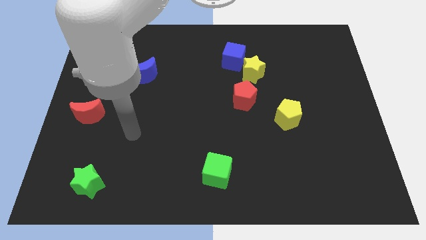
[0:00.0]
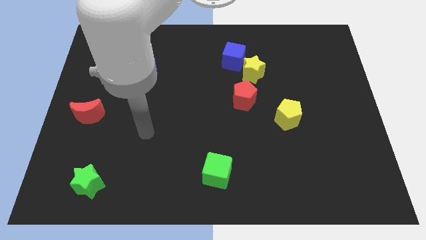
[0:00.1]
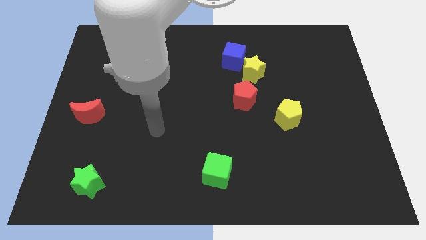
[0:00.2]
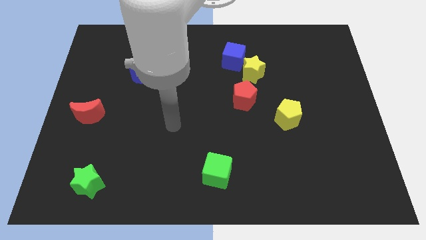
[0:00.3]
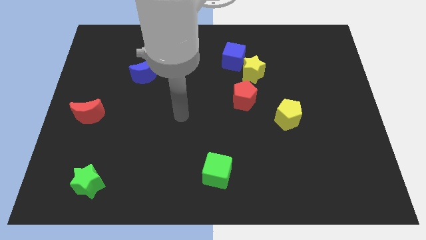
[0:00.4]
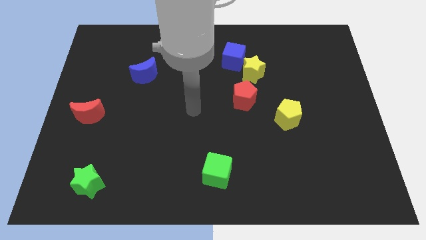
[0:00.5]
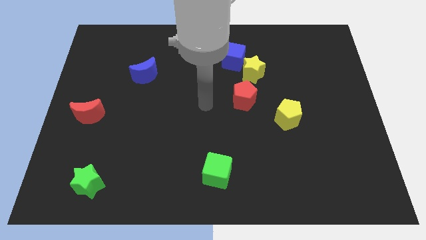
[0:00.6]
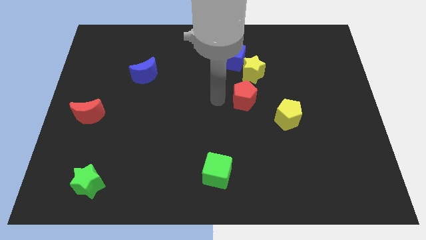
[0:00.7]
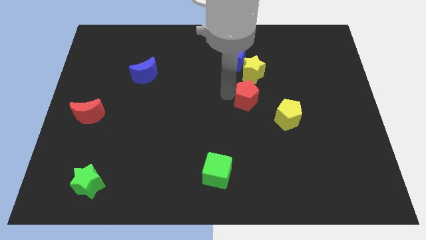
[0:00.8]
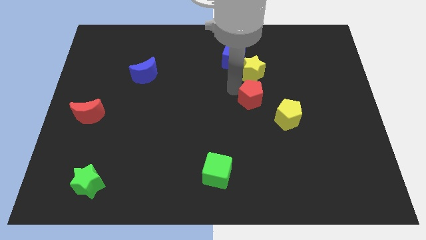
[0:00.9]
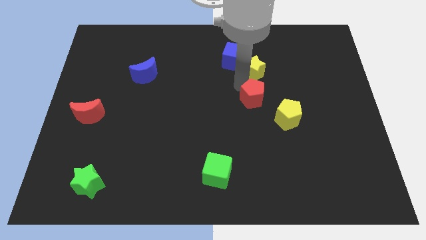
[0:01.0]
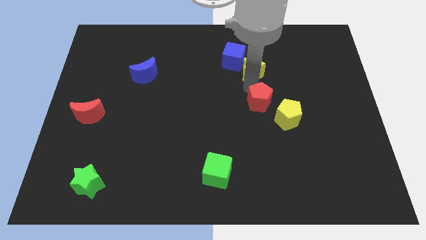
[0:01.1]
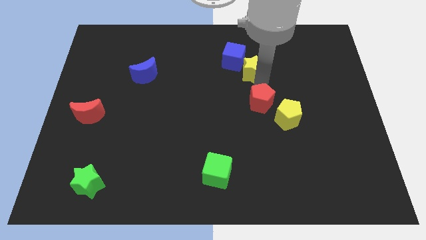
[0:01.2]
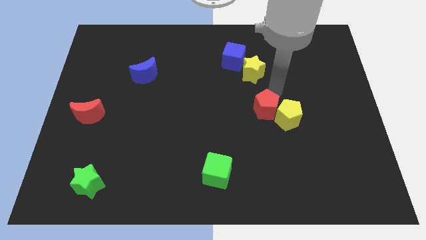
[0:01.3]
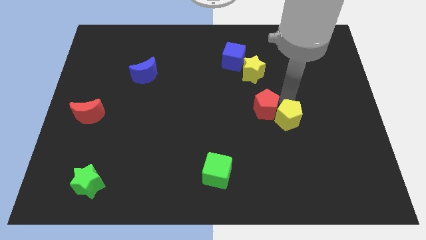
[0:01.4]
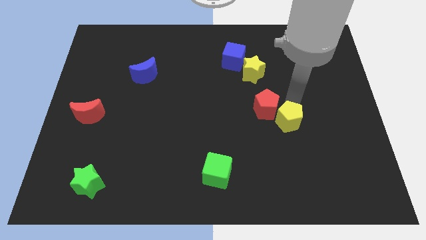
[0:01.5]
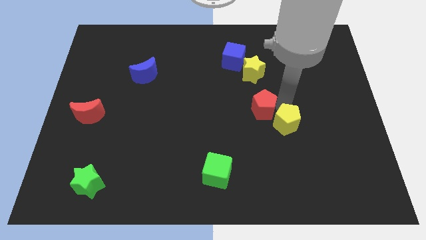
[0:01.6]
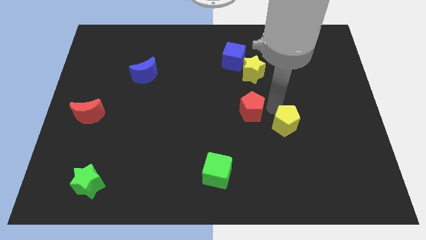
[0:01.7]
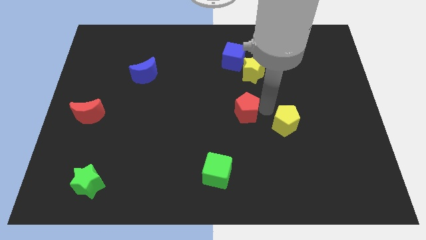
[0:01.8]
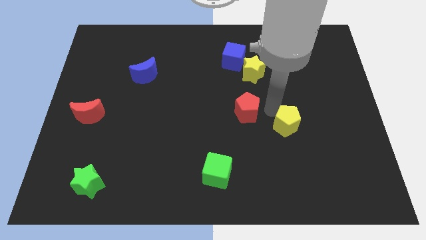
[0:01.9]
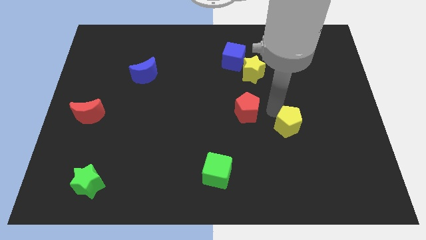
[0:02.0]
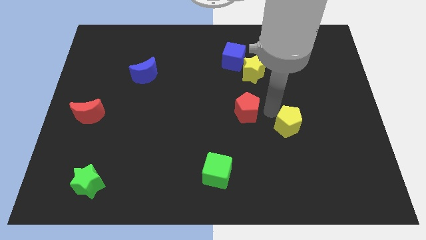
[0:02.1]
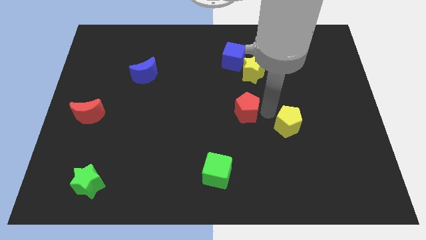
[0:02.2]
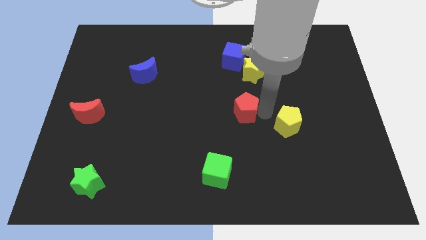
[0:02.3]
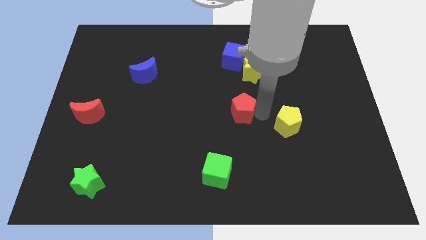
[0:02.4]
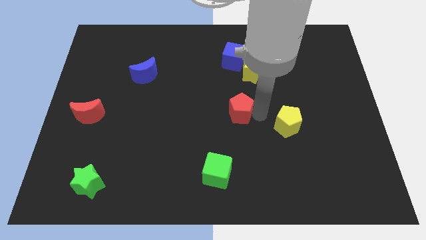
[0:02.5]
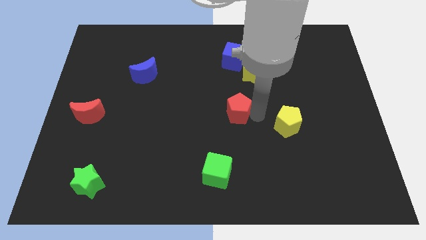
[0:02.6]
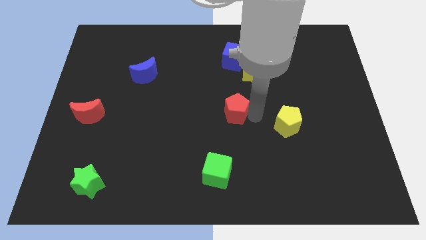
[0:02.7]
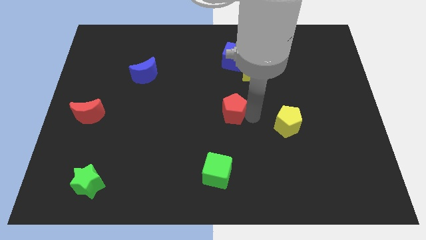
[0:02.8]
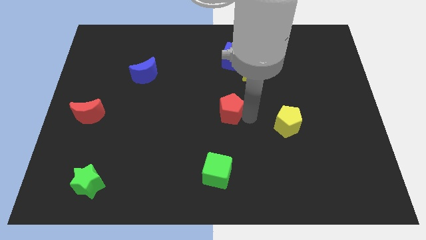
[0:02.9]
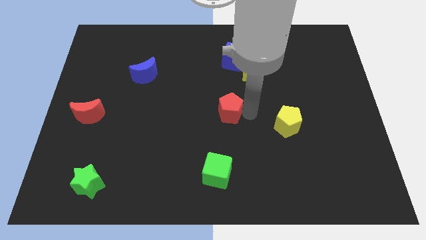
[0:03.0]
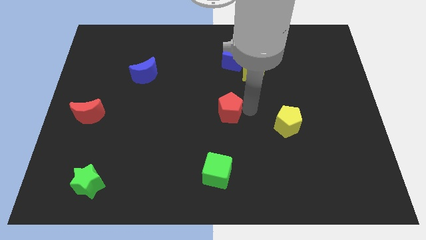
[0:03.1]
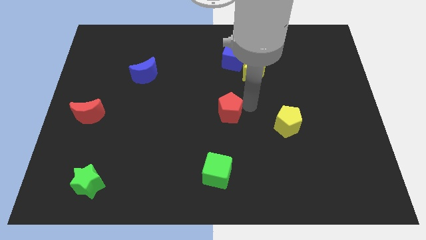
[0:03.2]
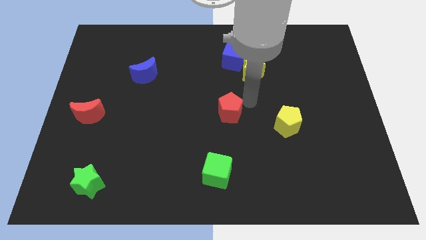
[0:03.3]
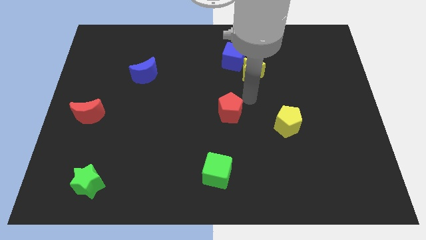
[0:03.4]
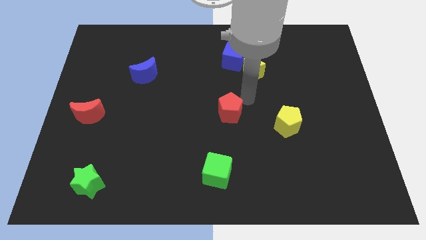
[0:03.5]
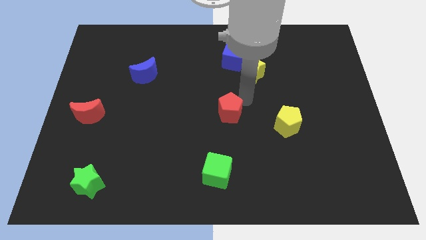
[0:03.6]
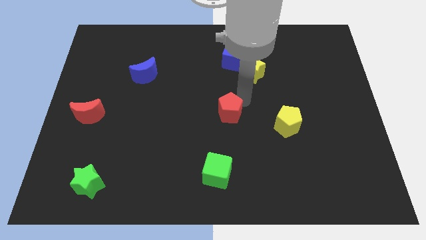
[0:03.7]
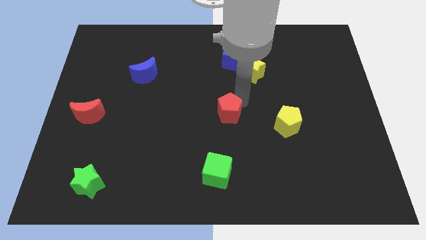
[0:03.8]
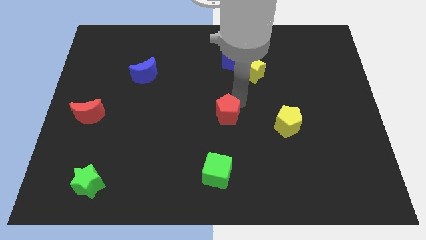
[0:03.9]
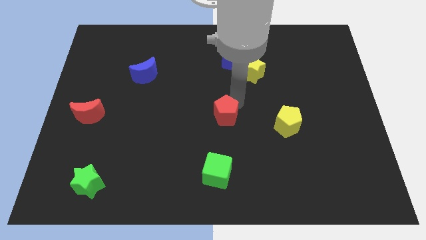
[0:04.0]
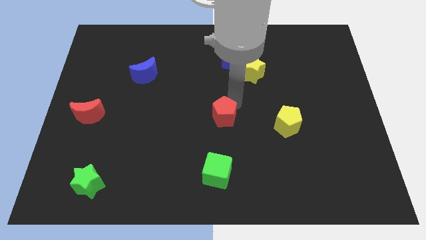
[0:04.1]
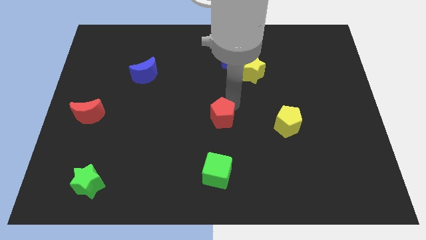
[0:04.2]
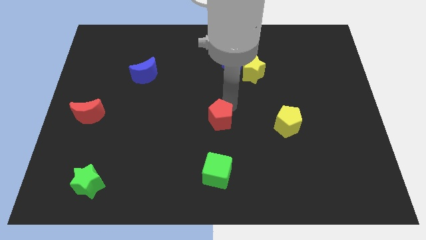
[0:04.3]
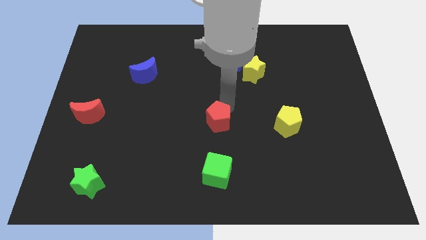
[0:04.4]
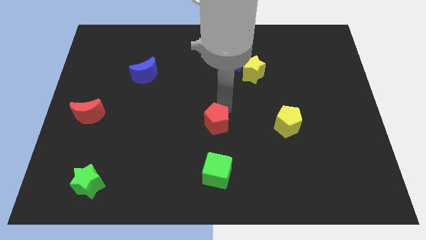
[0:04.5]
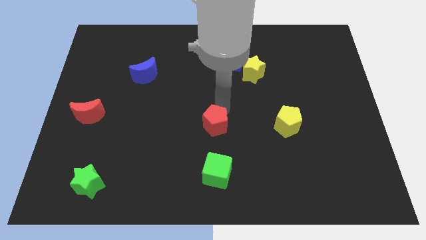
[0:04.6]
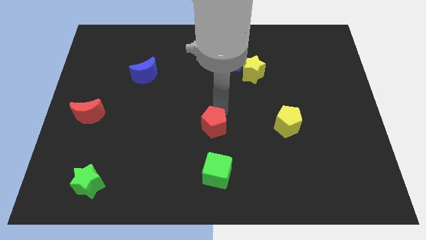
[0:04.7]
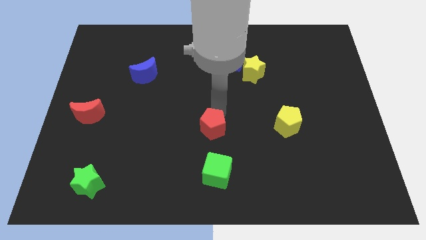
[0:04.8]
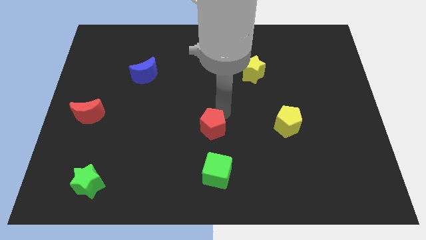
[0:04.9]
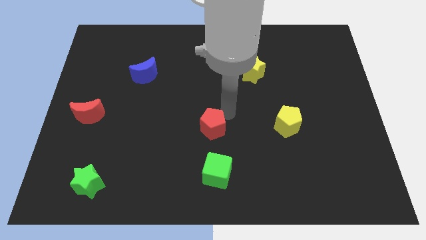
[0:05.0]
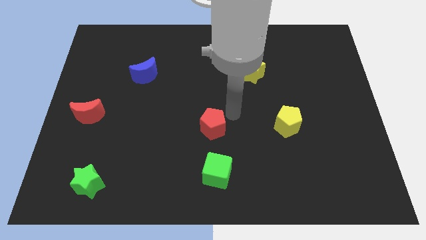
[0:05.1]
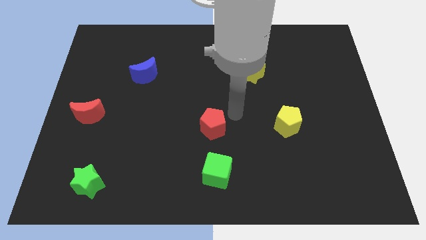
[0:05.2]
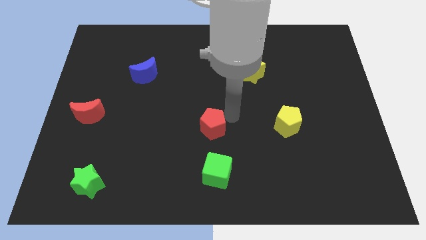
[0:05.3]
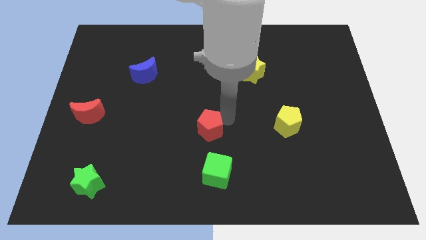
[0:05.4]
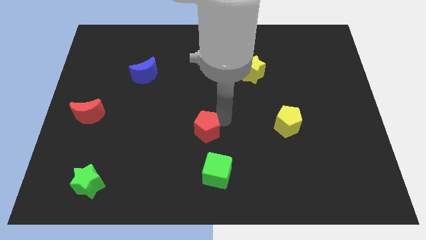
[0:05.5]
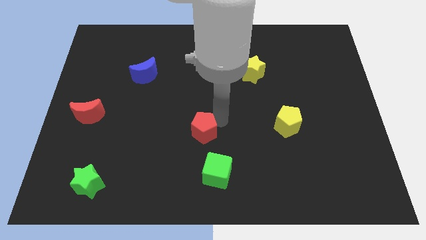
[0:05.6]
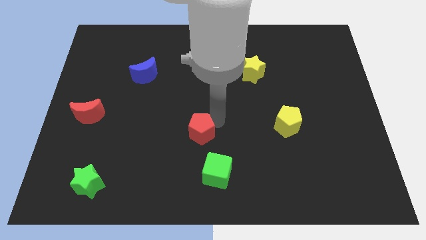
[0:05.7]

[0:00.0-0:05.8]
move the red pentagon to the top left side of the green cube
